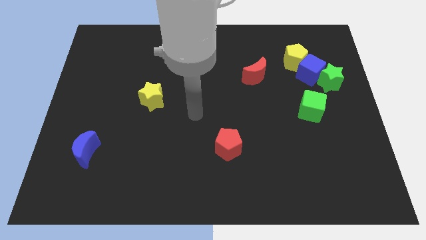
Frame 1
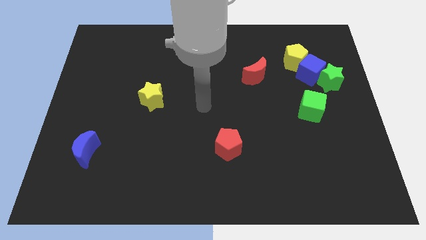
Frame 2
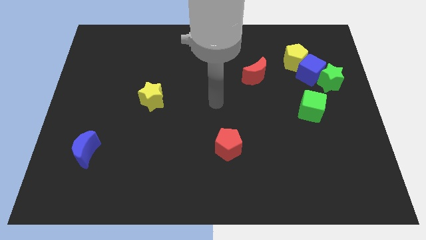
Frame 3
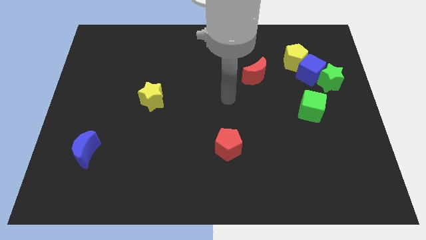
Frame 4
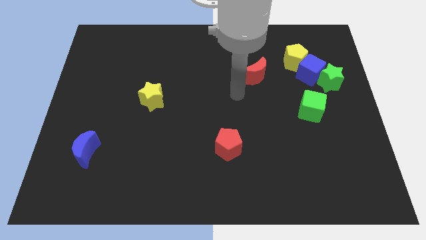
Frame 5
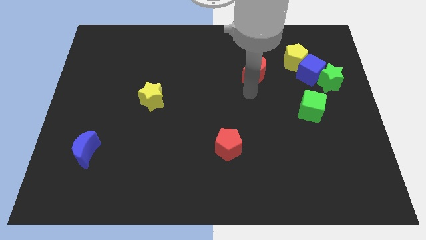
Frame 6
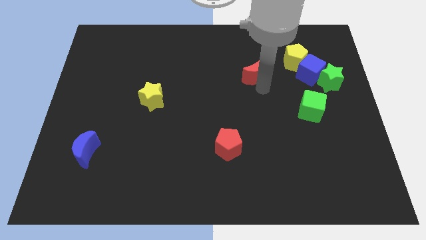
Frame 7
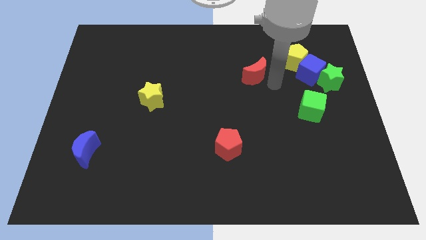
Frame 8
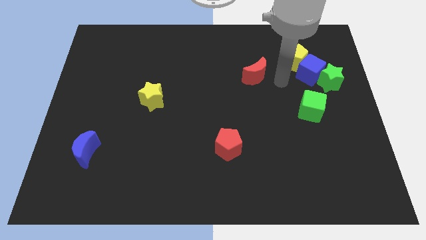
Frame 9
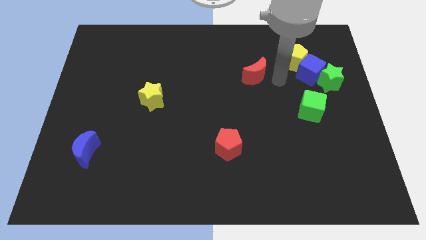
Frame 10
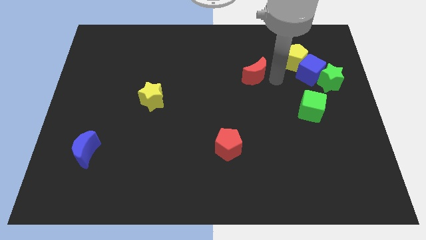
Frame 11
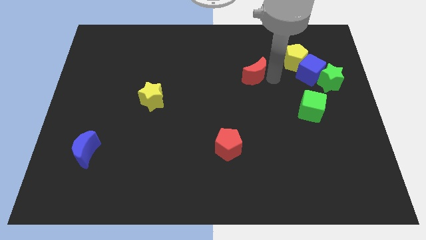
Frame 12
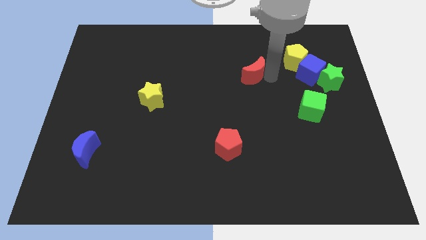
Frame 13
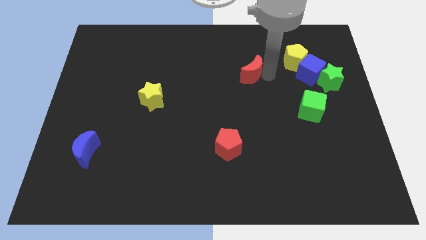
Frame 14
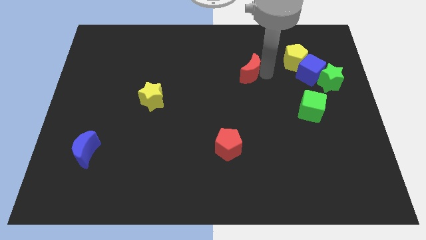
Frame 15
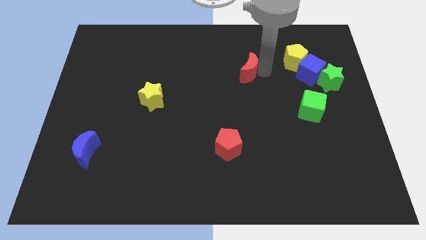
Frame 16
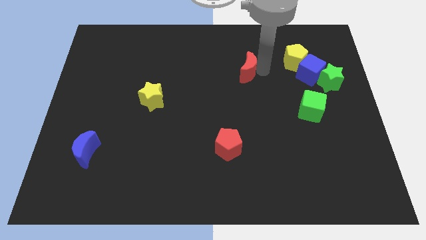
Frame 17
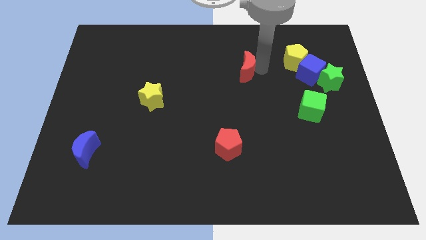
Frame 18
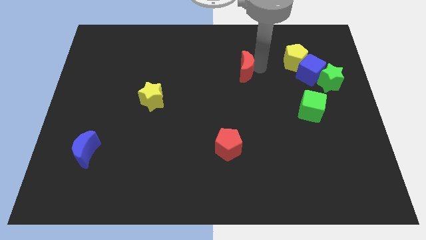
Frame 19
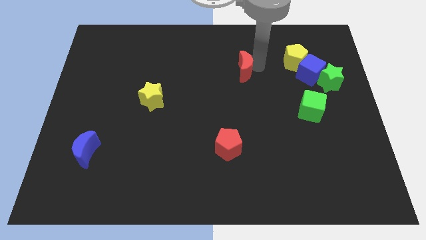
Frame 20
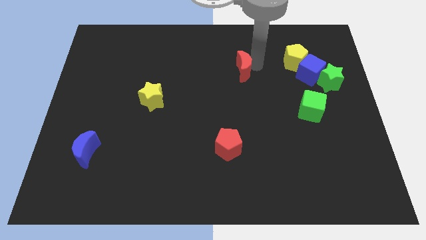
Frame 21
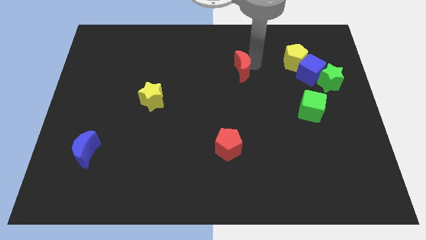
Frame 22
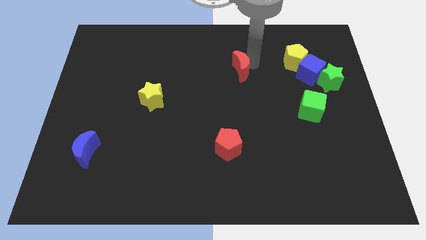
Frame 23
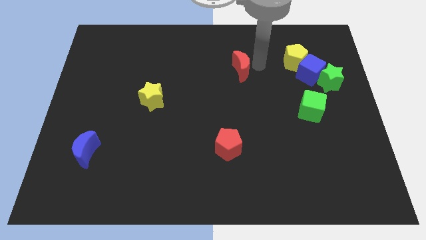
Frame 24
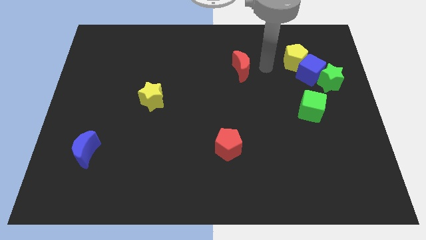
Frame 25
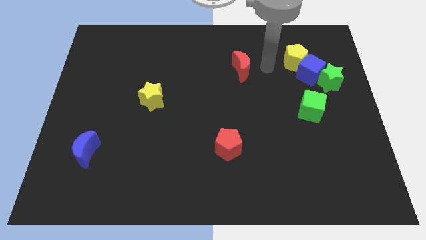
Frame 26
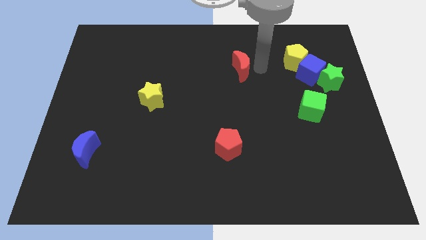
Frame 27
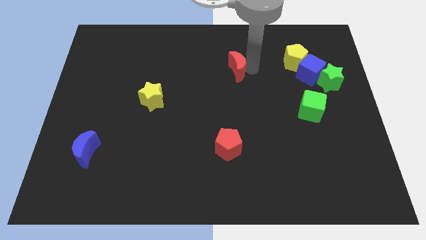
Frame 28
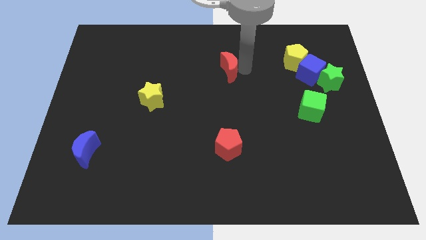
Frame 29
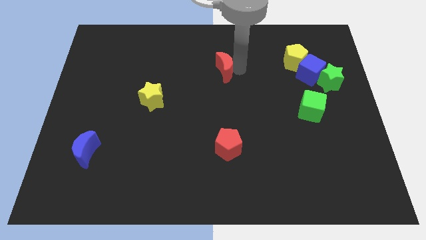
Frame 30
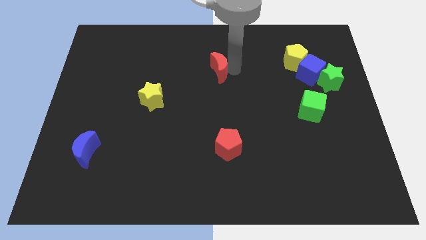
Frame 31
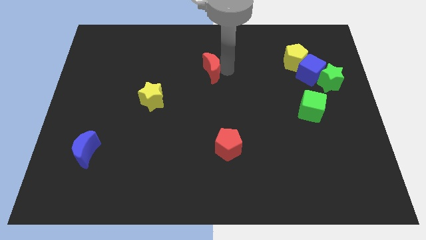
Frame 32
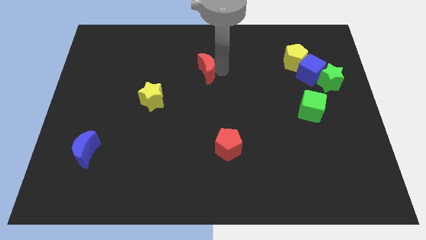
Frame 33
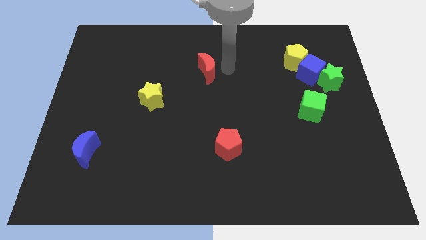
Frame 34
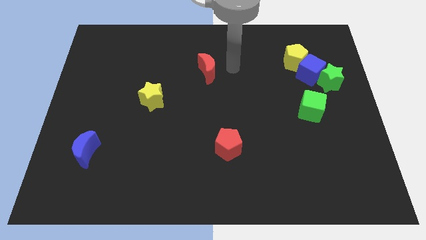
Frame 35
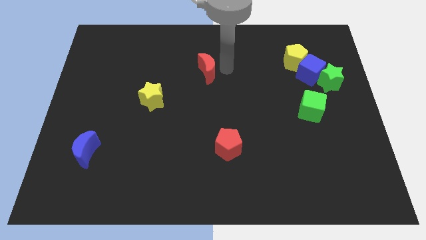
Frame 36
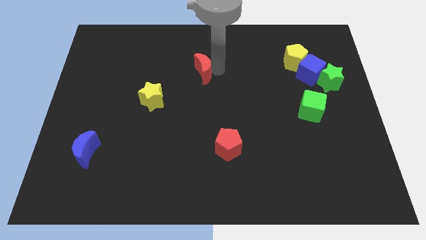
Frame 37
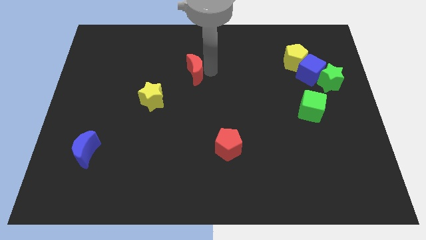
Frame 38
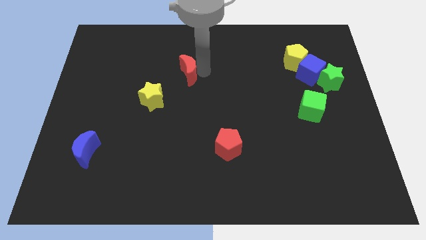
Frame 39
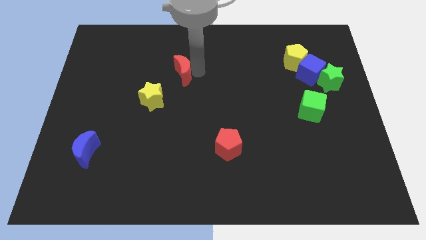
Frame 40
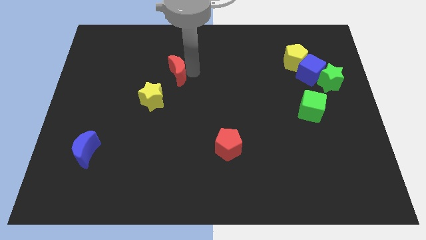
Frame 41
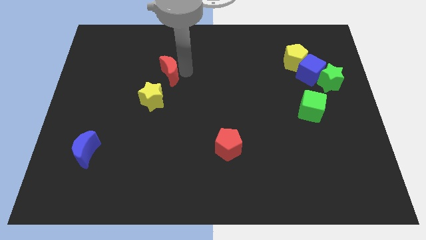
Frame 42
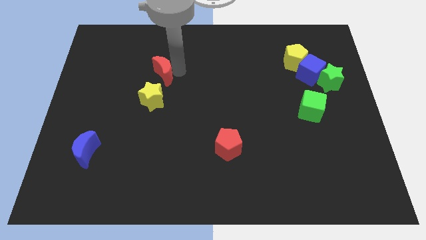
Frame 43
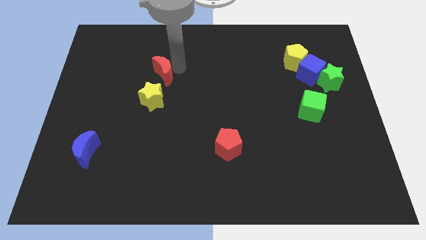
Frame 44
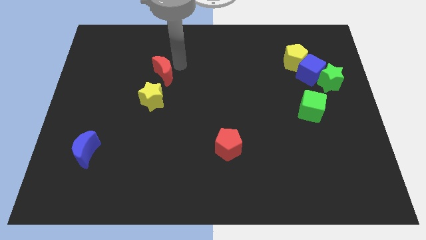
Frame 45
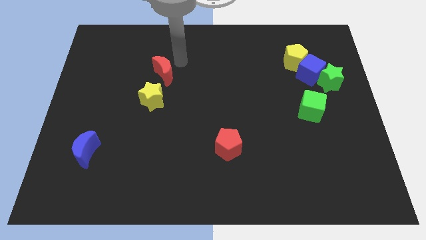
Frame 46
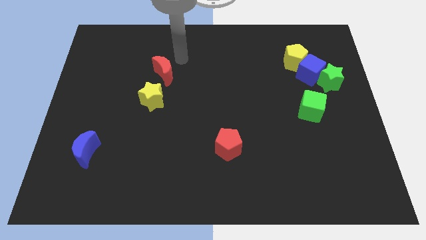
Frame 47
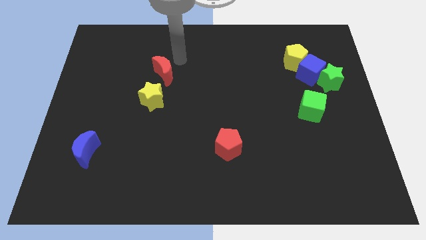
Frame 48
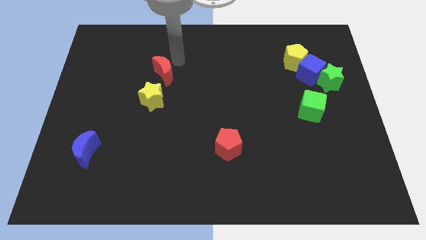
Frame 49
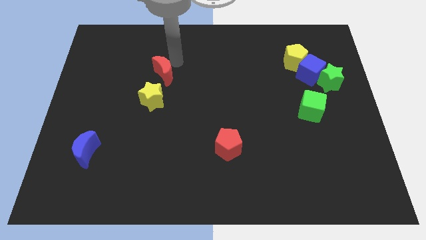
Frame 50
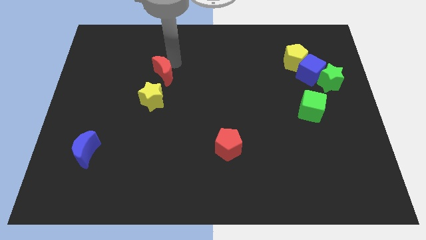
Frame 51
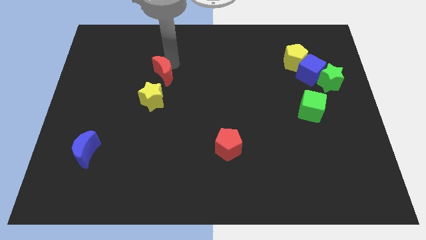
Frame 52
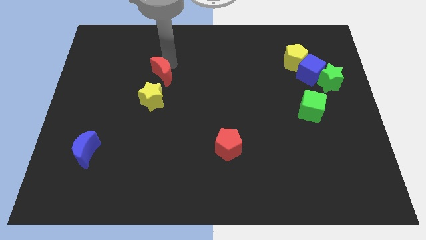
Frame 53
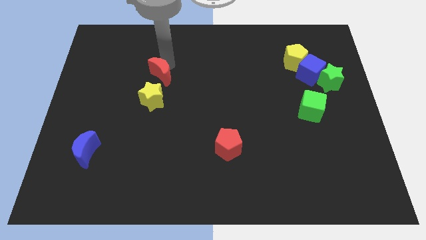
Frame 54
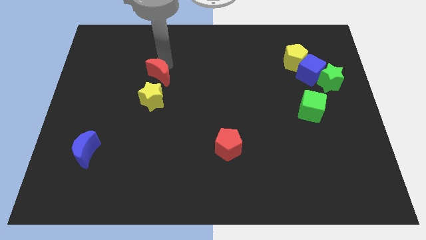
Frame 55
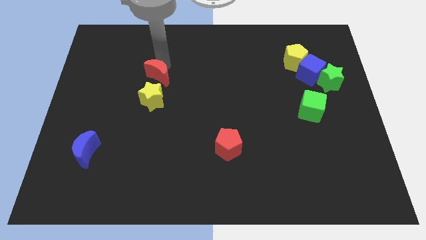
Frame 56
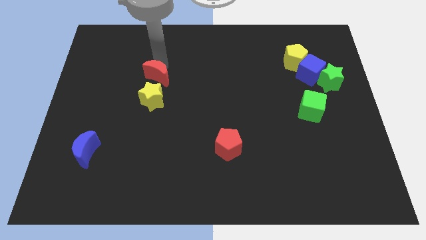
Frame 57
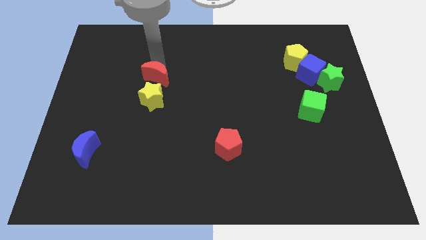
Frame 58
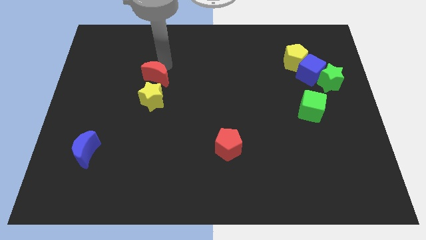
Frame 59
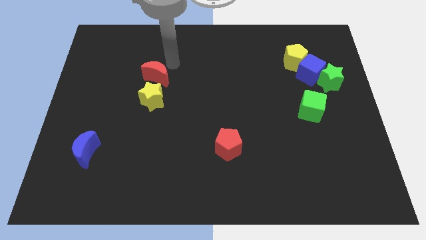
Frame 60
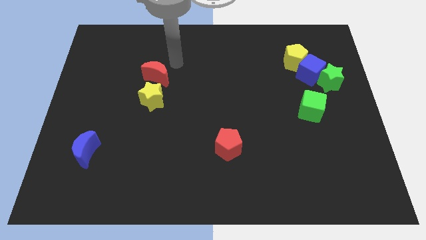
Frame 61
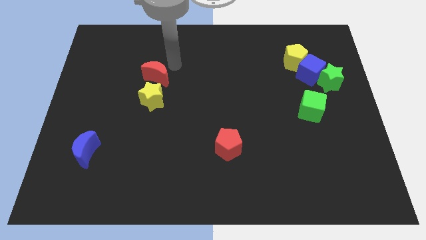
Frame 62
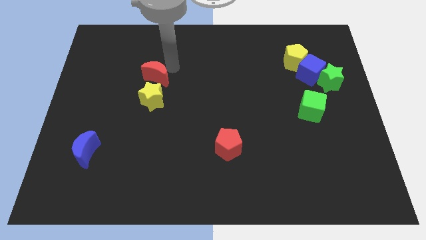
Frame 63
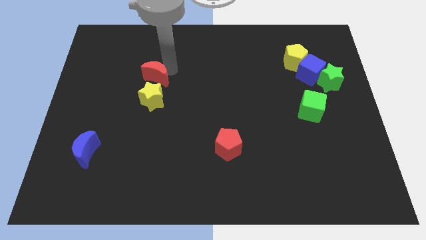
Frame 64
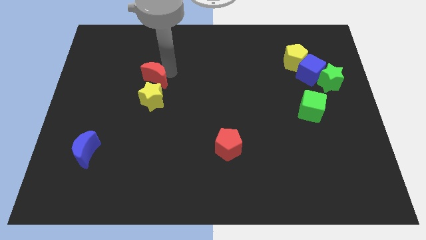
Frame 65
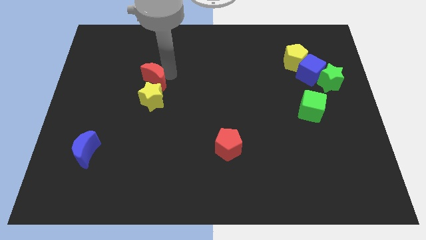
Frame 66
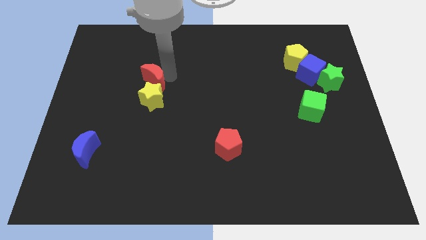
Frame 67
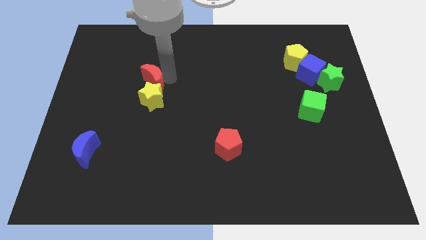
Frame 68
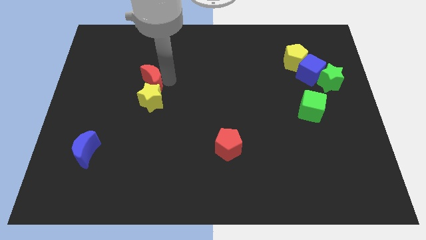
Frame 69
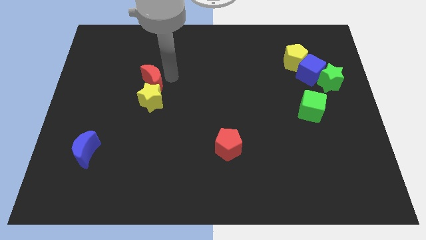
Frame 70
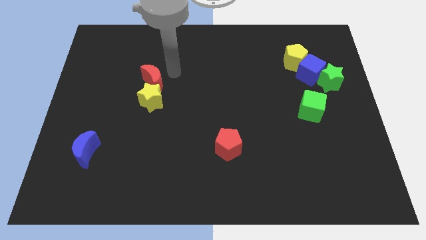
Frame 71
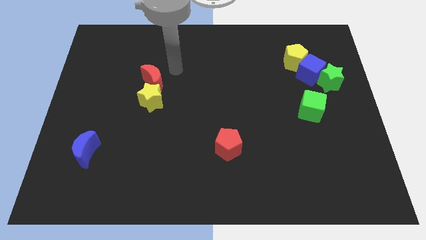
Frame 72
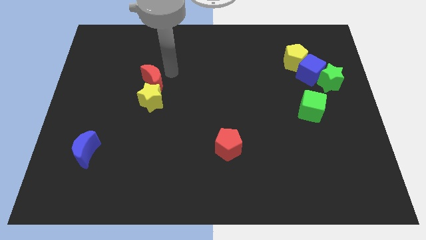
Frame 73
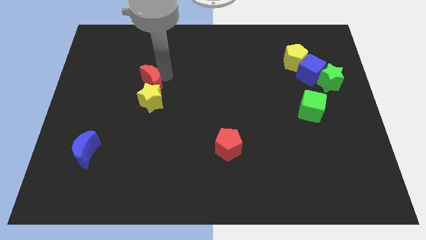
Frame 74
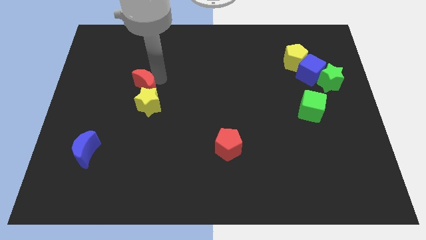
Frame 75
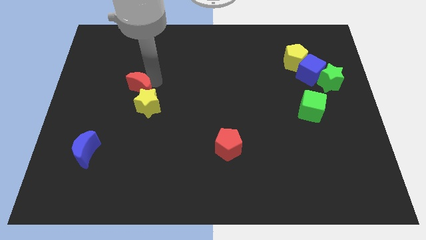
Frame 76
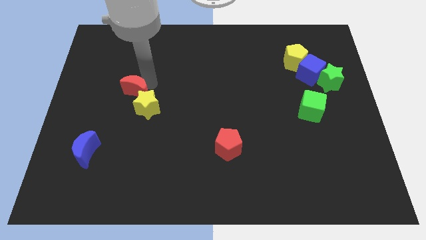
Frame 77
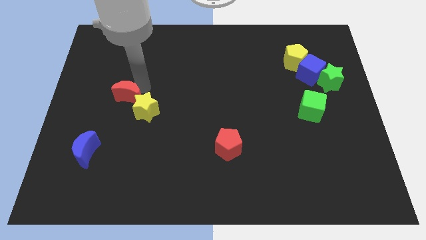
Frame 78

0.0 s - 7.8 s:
move the red moon to the left side of the yellow star

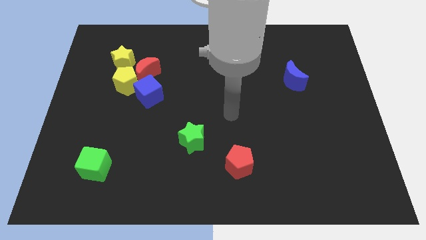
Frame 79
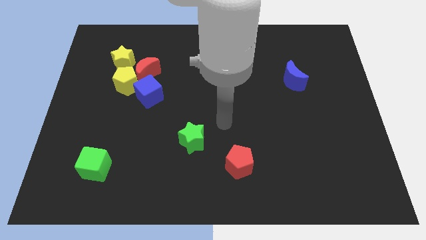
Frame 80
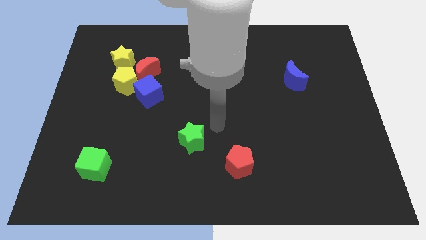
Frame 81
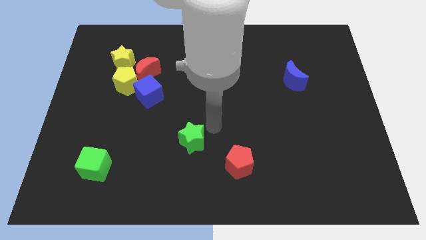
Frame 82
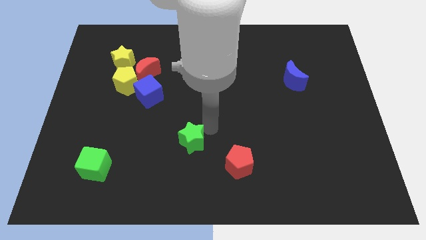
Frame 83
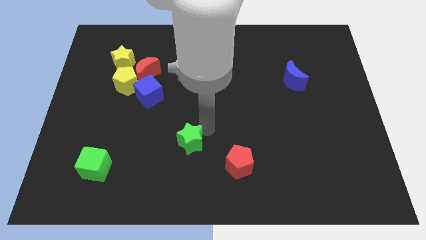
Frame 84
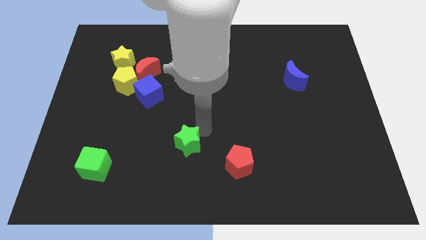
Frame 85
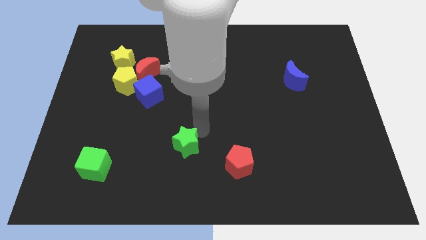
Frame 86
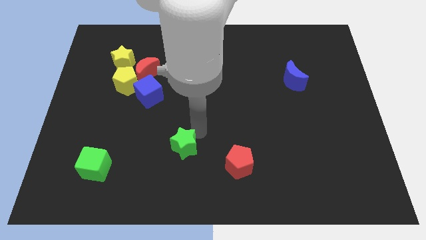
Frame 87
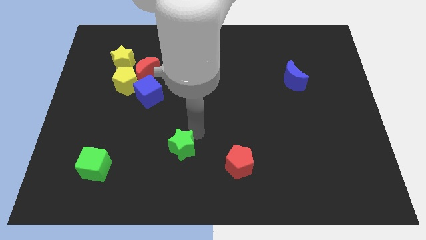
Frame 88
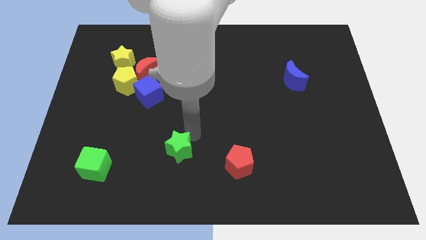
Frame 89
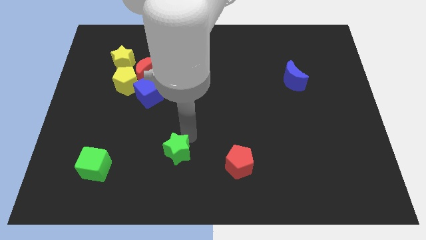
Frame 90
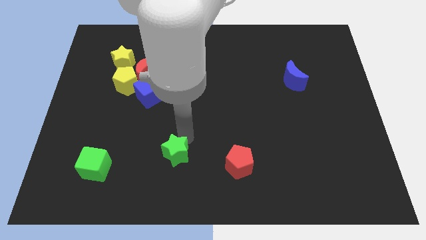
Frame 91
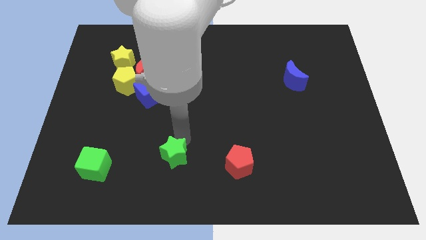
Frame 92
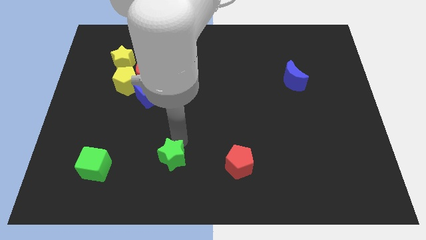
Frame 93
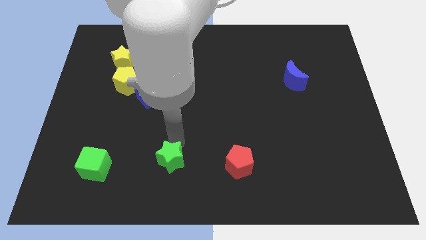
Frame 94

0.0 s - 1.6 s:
push the green star to the right side of the green cube
